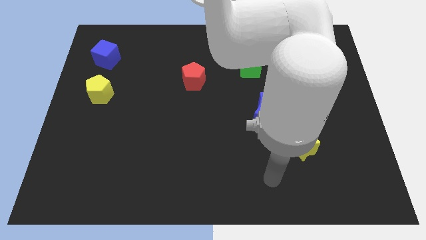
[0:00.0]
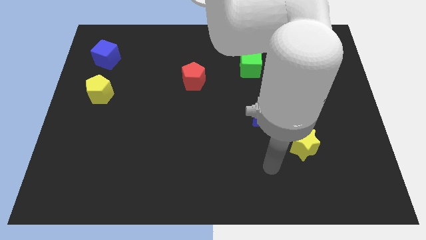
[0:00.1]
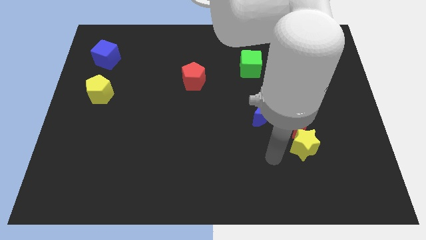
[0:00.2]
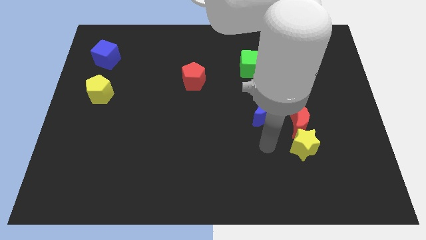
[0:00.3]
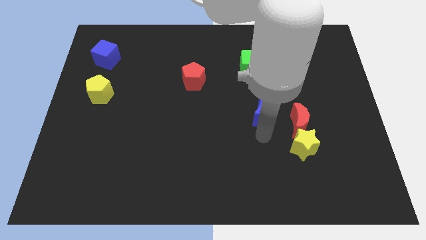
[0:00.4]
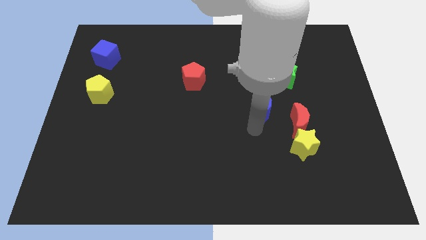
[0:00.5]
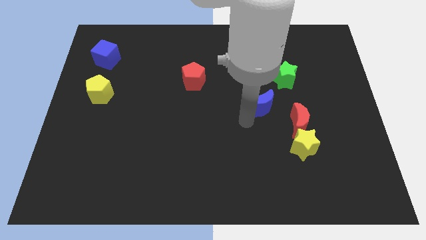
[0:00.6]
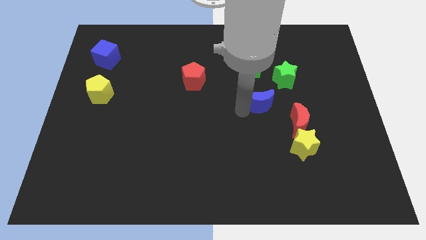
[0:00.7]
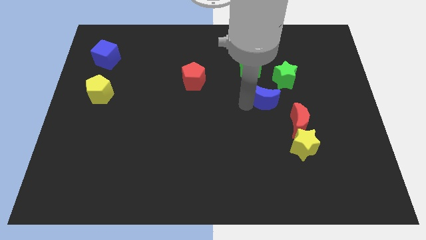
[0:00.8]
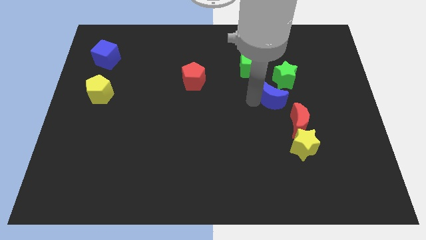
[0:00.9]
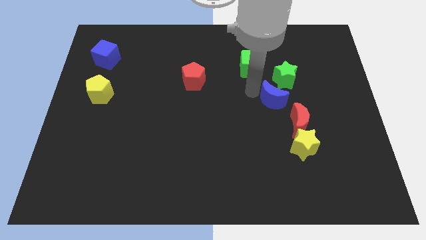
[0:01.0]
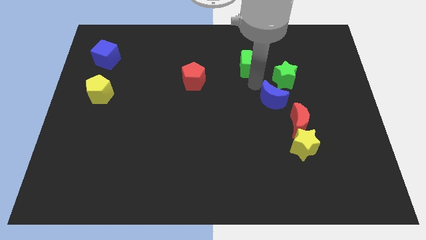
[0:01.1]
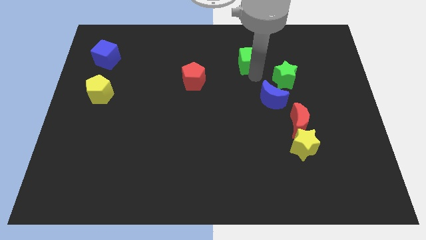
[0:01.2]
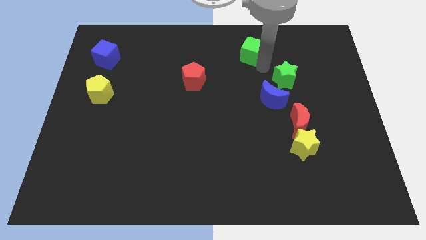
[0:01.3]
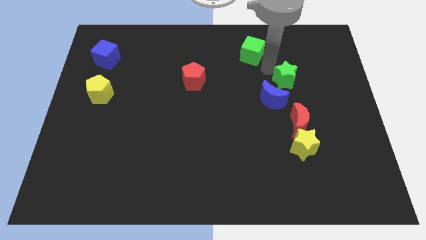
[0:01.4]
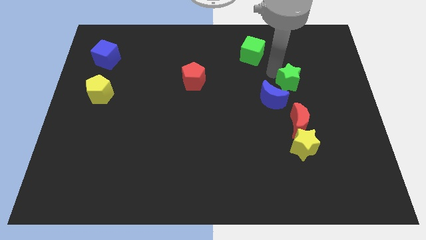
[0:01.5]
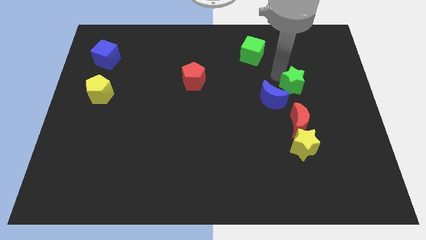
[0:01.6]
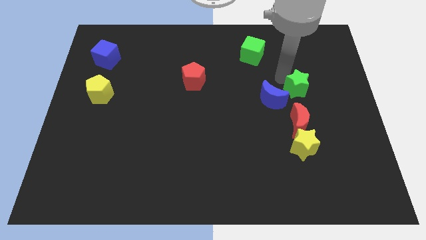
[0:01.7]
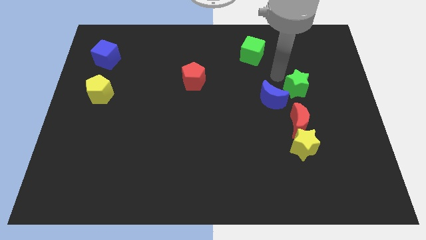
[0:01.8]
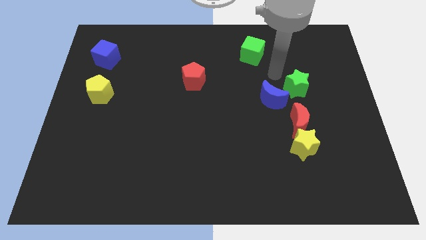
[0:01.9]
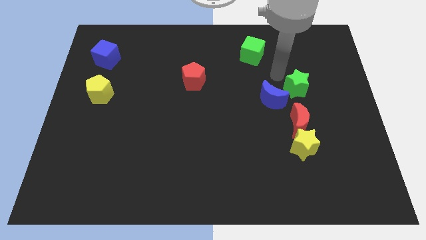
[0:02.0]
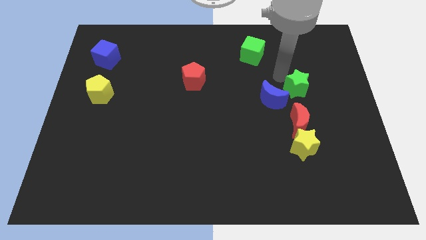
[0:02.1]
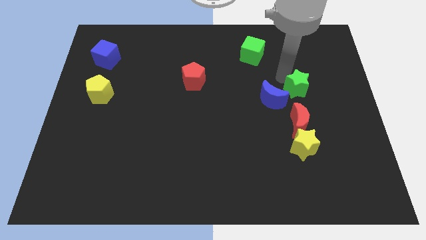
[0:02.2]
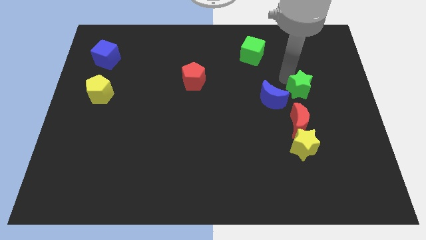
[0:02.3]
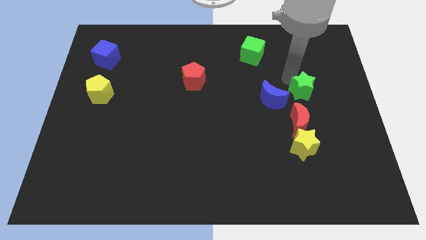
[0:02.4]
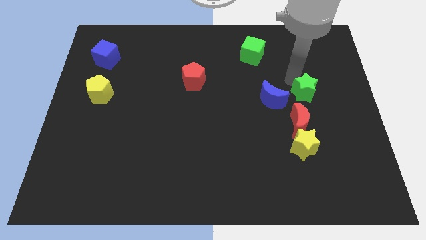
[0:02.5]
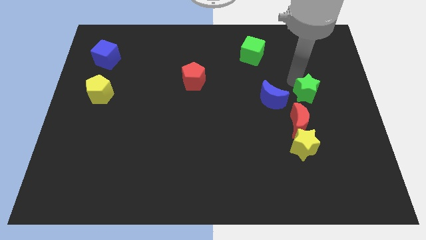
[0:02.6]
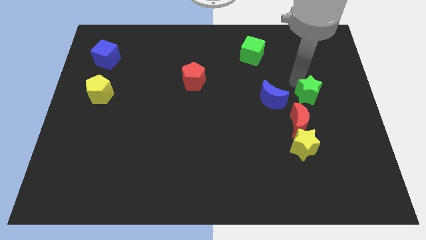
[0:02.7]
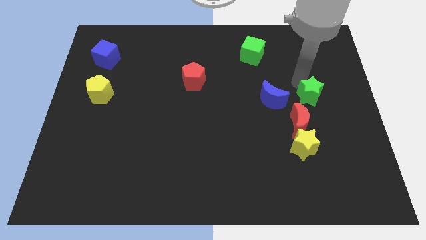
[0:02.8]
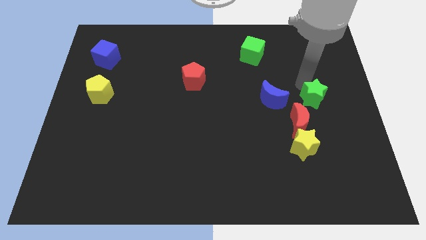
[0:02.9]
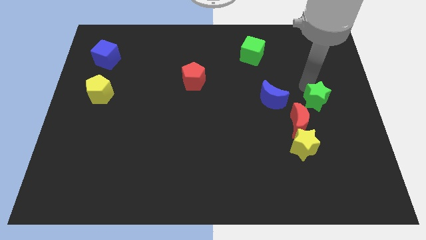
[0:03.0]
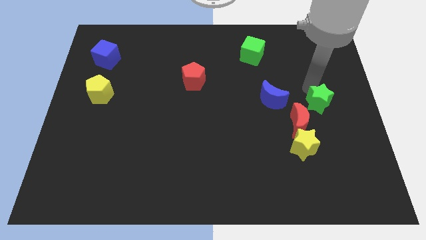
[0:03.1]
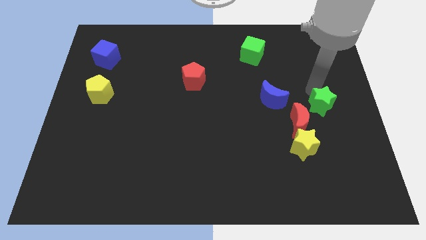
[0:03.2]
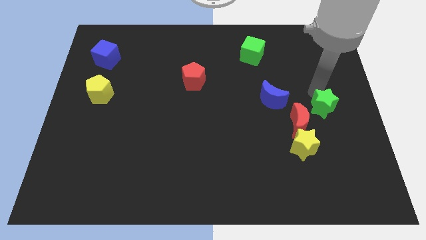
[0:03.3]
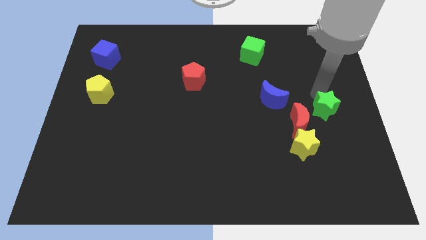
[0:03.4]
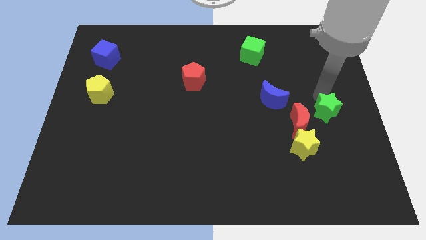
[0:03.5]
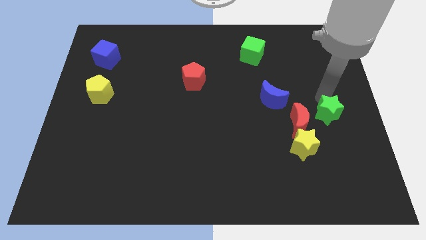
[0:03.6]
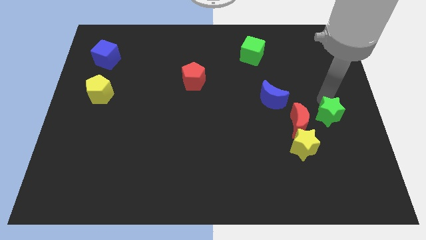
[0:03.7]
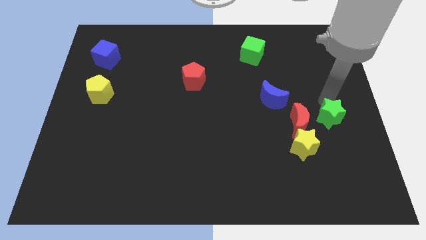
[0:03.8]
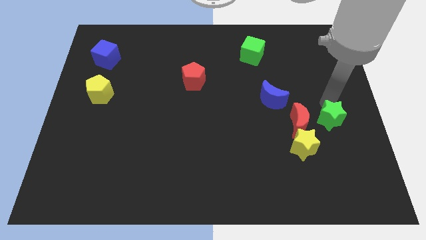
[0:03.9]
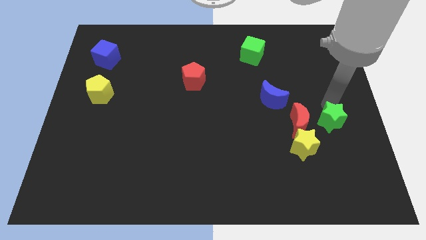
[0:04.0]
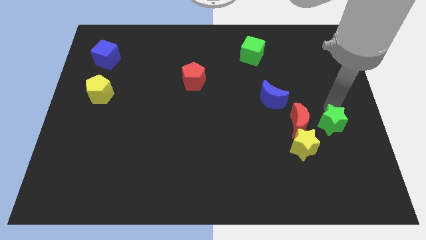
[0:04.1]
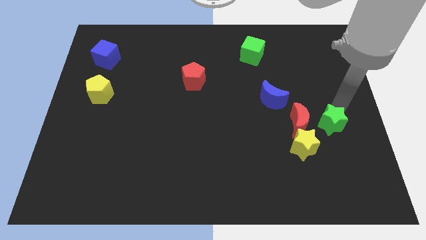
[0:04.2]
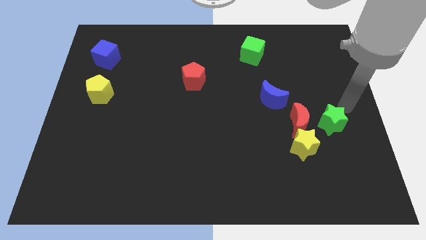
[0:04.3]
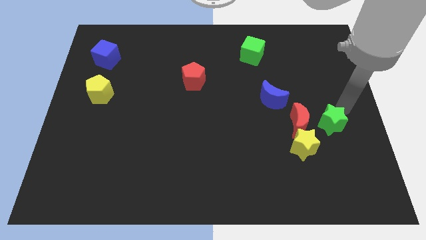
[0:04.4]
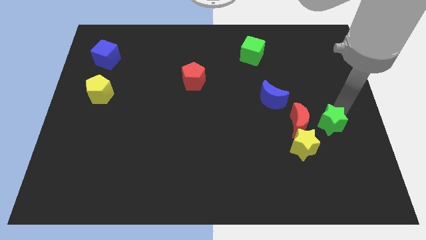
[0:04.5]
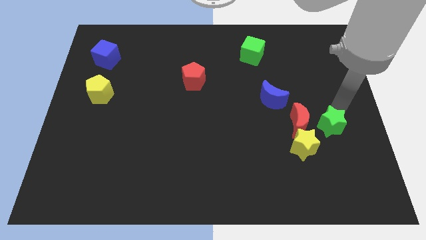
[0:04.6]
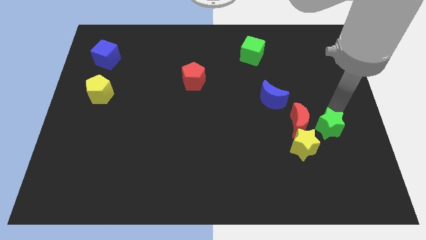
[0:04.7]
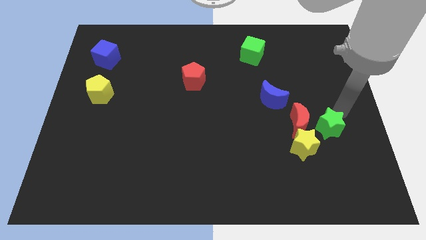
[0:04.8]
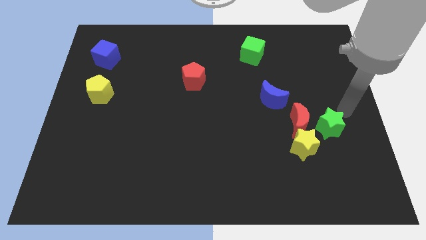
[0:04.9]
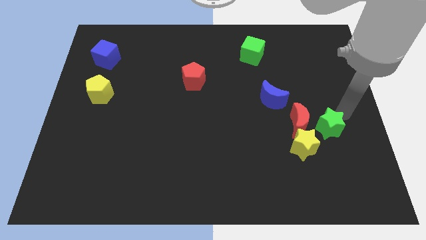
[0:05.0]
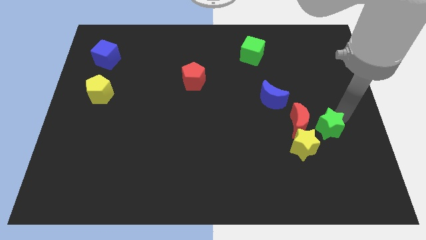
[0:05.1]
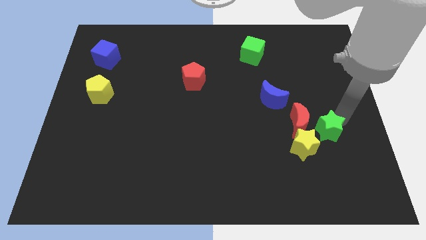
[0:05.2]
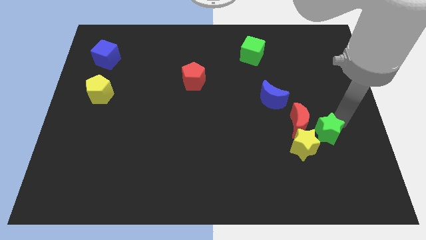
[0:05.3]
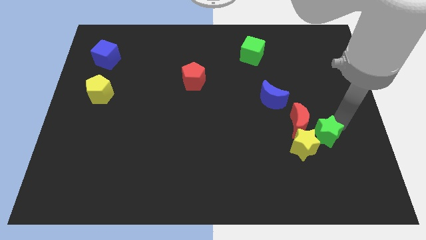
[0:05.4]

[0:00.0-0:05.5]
put the green star to the yellow star

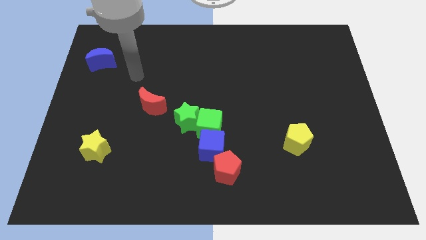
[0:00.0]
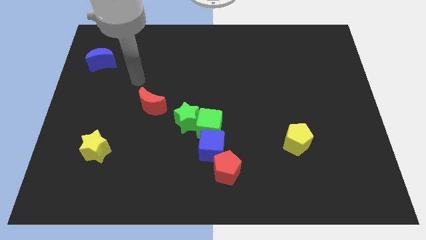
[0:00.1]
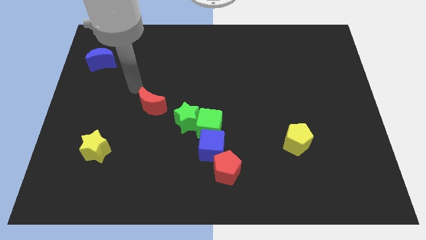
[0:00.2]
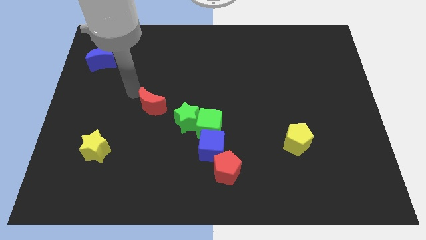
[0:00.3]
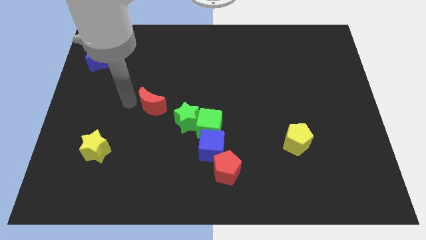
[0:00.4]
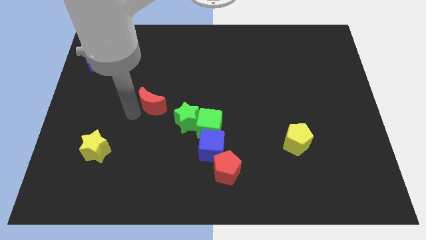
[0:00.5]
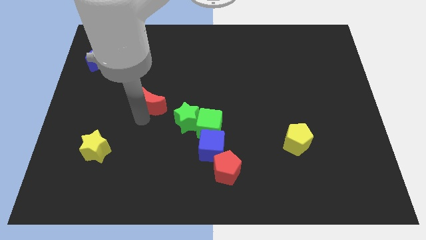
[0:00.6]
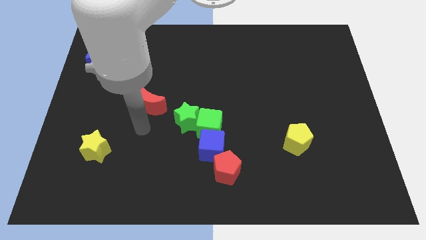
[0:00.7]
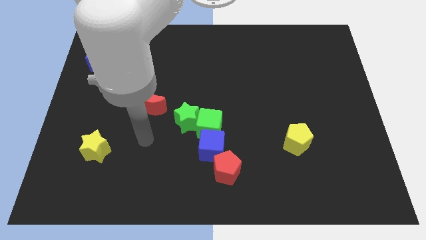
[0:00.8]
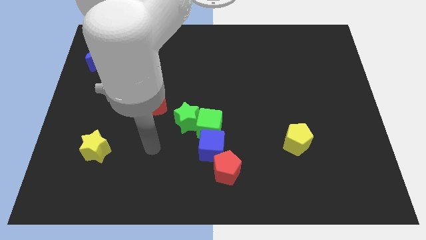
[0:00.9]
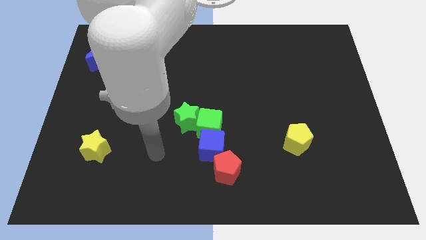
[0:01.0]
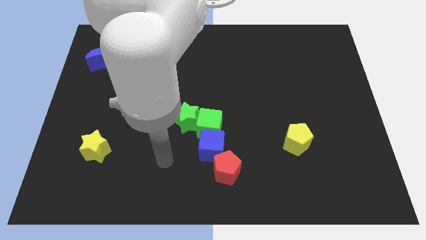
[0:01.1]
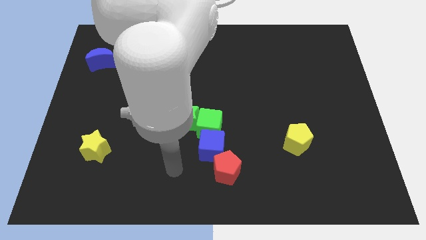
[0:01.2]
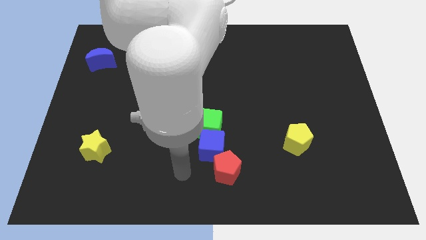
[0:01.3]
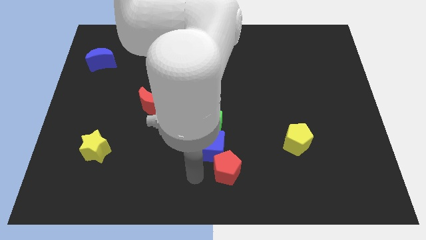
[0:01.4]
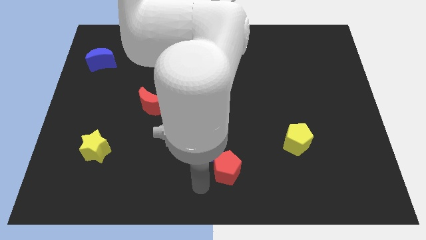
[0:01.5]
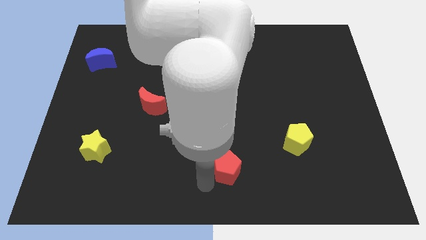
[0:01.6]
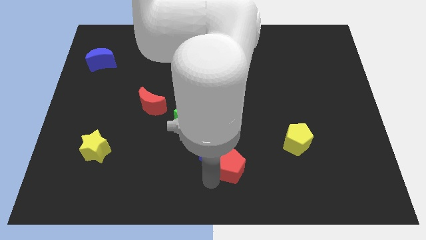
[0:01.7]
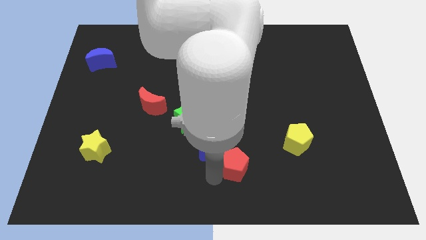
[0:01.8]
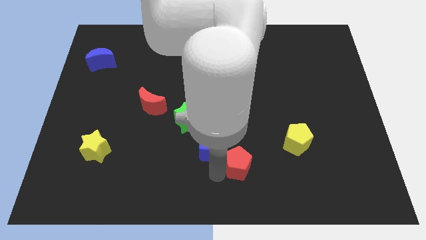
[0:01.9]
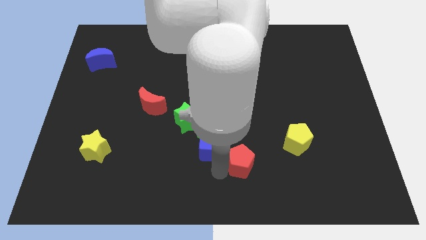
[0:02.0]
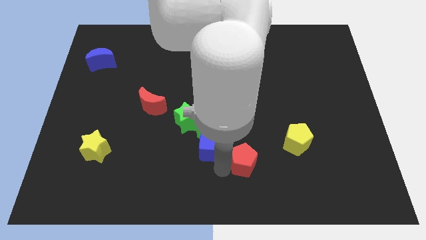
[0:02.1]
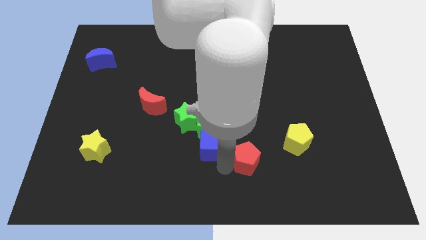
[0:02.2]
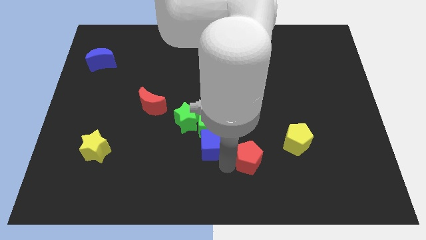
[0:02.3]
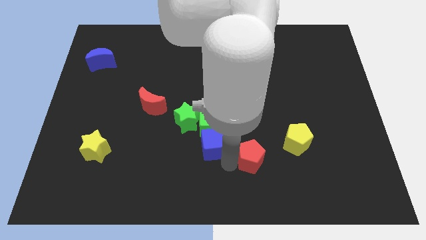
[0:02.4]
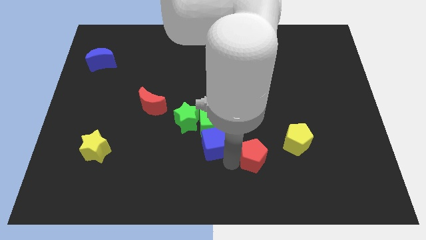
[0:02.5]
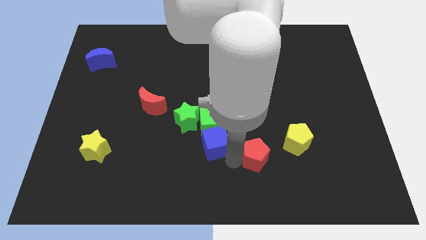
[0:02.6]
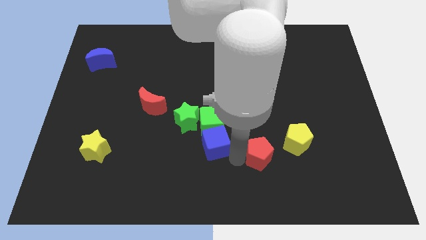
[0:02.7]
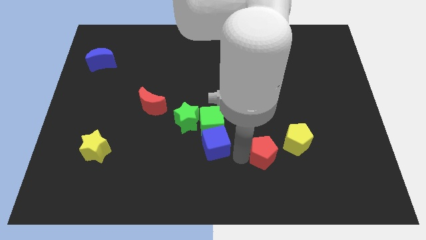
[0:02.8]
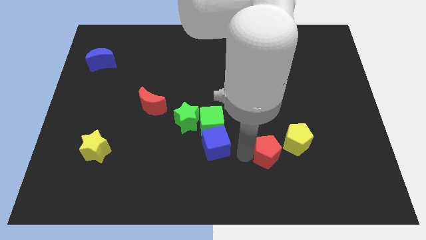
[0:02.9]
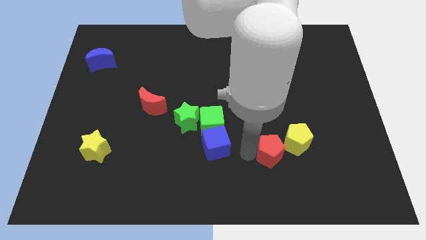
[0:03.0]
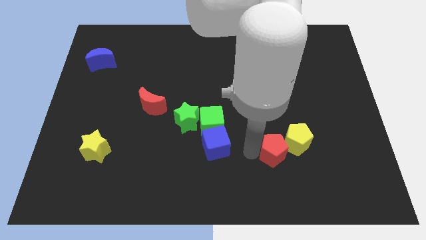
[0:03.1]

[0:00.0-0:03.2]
slide the red pentagon towards the yellow pentagon
